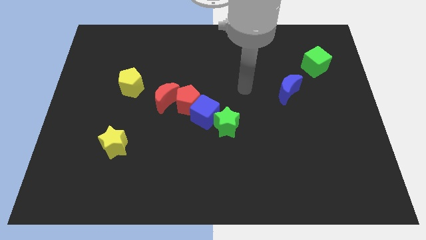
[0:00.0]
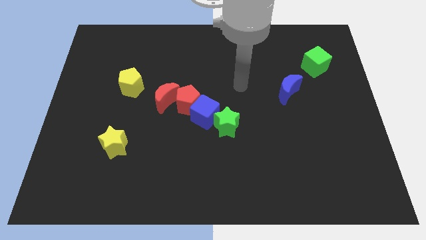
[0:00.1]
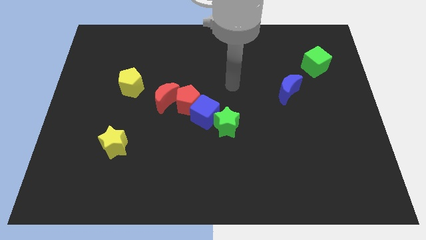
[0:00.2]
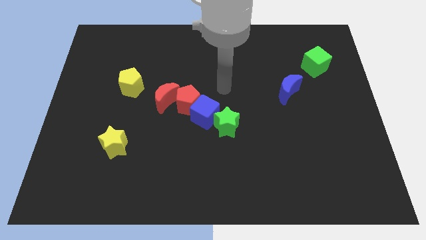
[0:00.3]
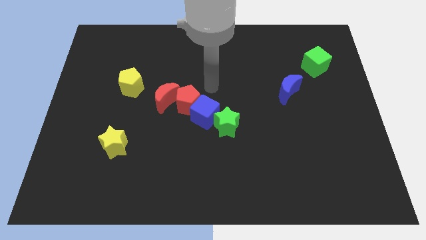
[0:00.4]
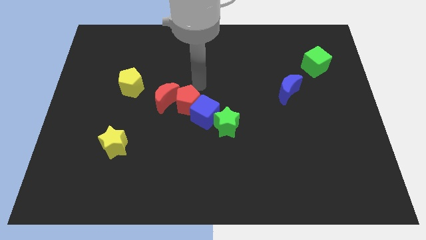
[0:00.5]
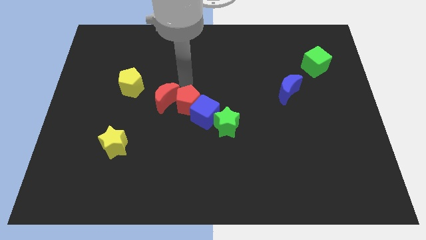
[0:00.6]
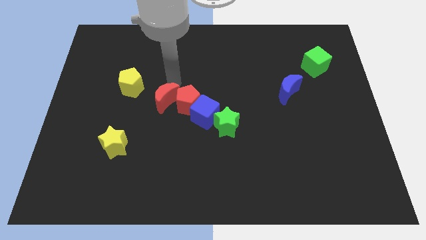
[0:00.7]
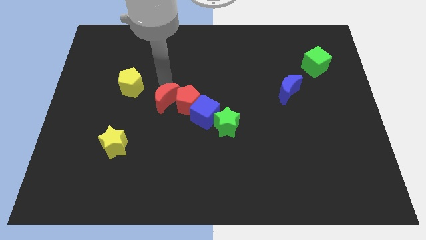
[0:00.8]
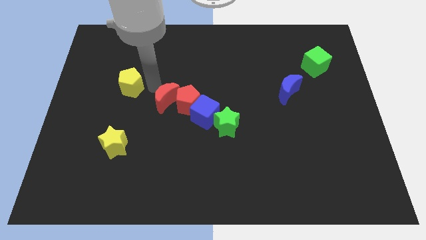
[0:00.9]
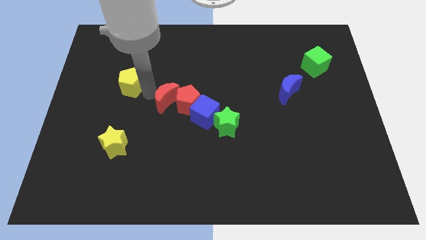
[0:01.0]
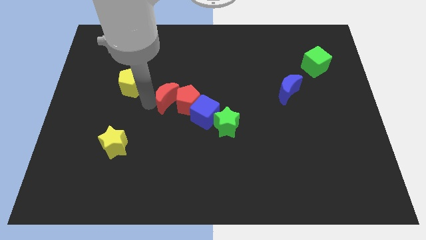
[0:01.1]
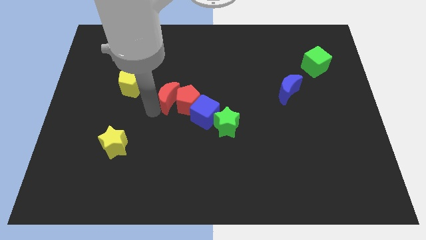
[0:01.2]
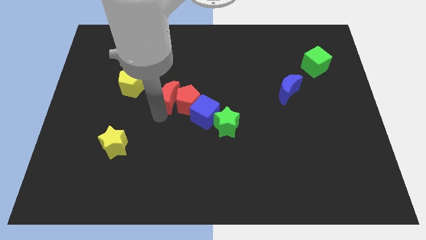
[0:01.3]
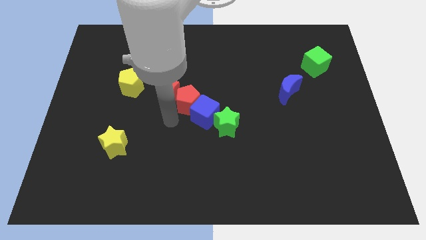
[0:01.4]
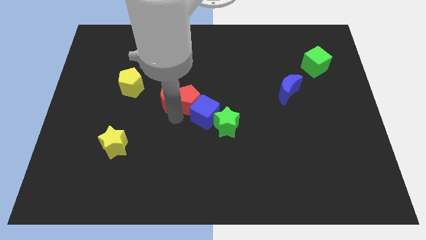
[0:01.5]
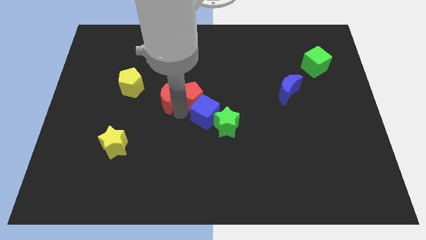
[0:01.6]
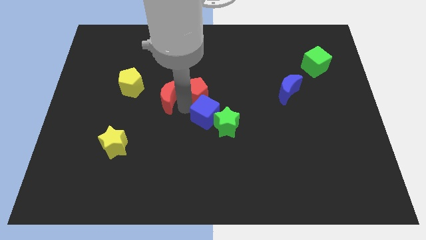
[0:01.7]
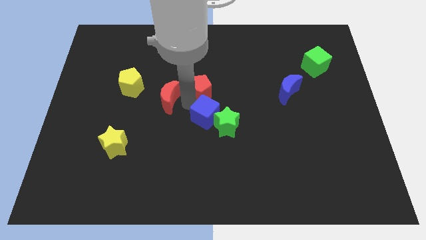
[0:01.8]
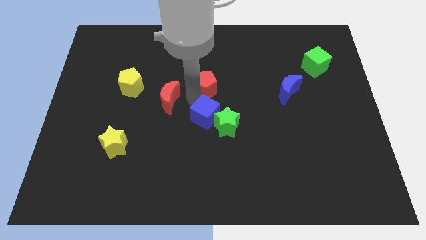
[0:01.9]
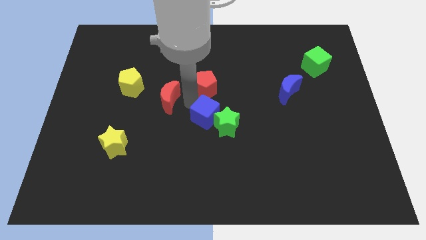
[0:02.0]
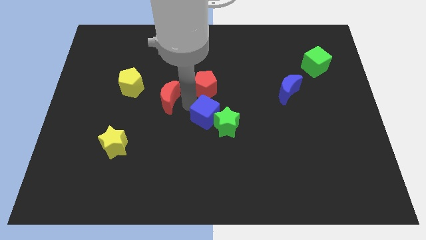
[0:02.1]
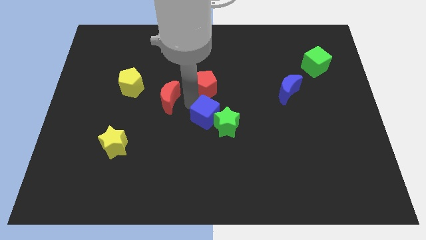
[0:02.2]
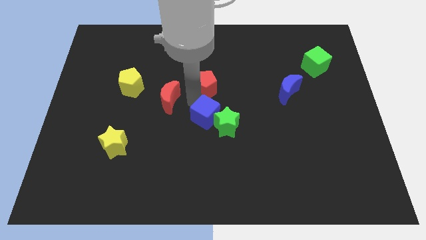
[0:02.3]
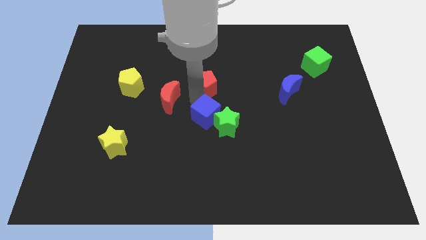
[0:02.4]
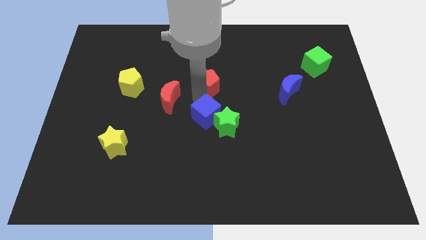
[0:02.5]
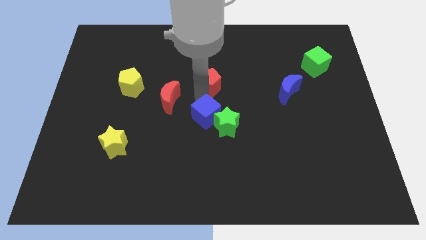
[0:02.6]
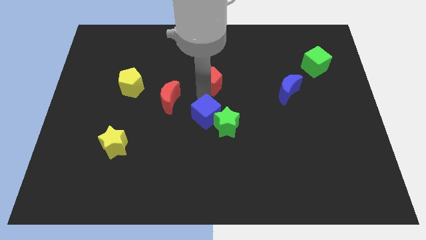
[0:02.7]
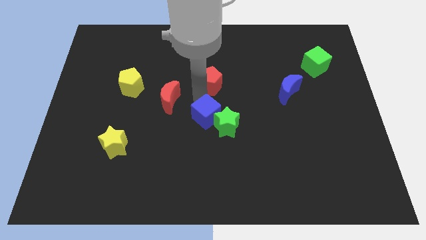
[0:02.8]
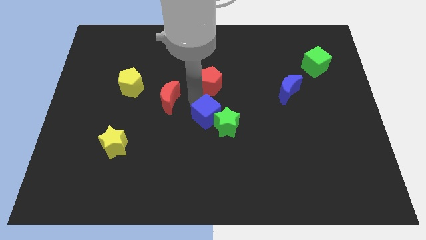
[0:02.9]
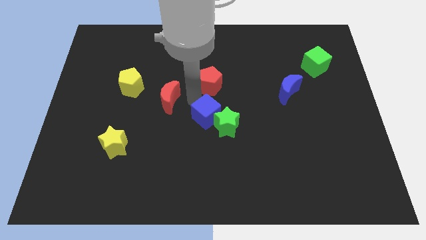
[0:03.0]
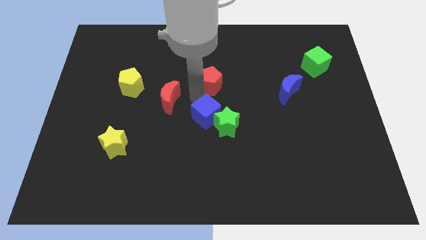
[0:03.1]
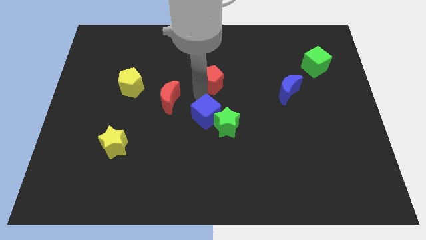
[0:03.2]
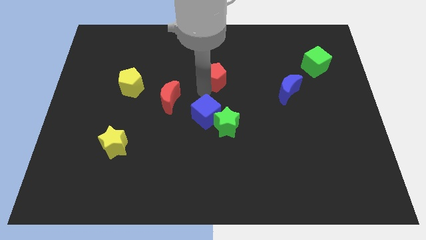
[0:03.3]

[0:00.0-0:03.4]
pull the red pentagon apart from the blue cube and red moon

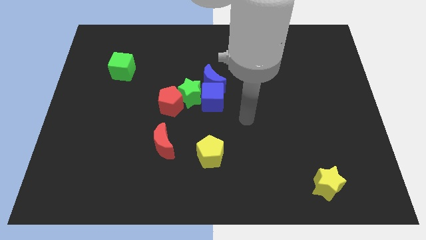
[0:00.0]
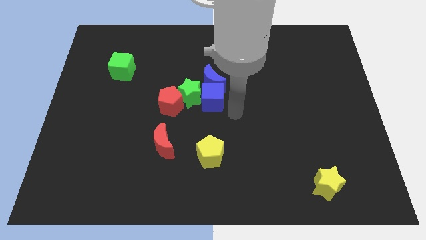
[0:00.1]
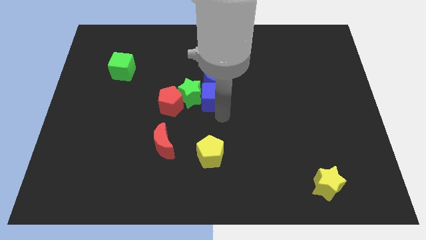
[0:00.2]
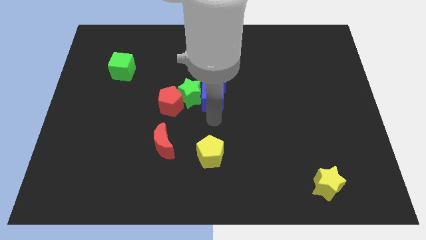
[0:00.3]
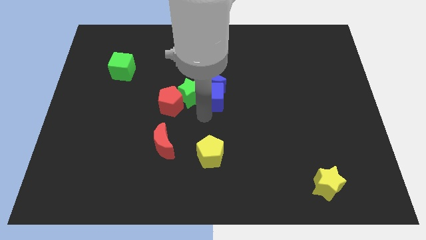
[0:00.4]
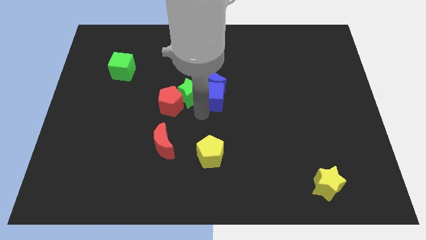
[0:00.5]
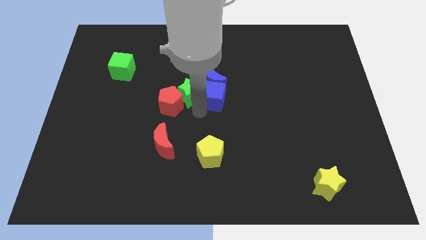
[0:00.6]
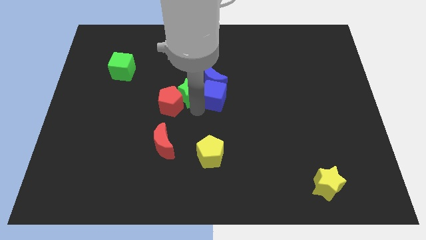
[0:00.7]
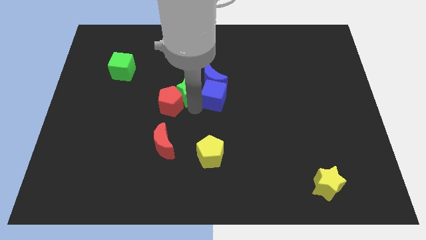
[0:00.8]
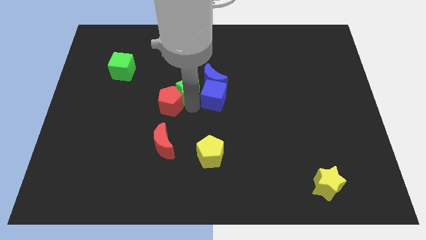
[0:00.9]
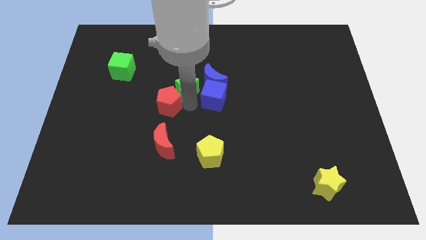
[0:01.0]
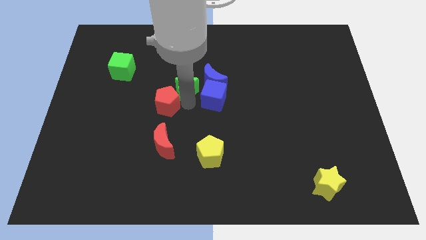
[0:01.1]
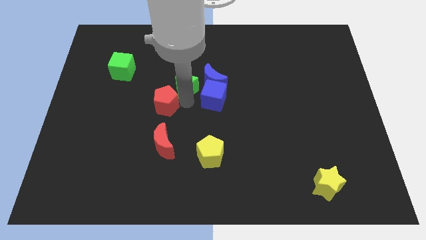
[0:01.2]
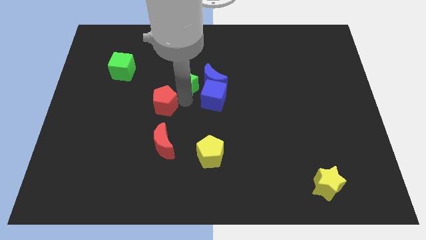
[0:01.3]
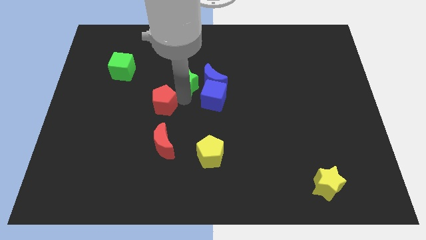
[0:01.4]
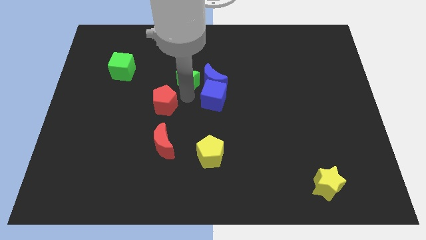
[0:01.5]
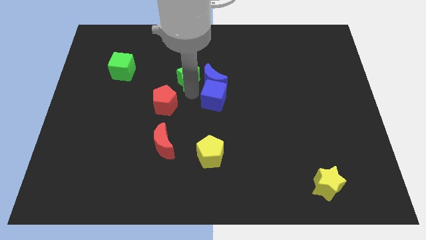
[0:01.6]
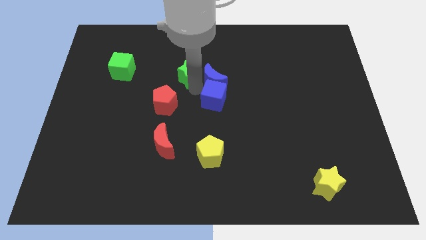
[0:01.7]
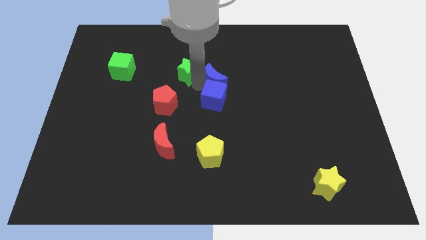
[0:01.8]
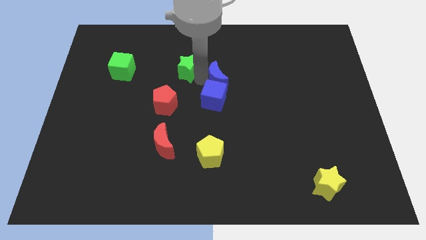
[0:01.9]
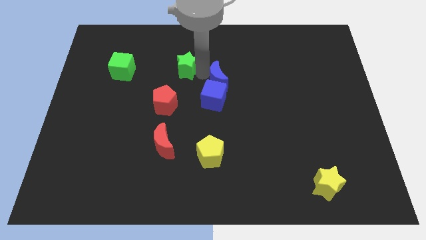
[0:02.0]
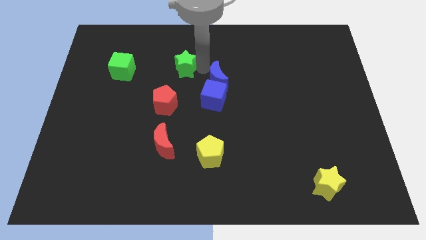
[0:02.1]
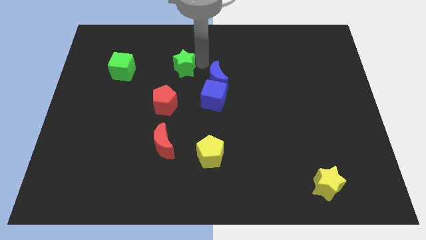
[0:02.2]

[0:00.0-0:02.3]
move the green star away from the blue cube, red pentagon, and blue moon

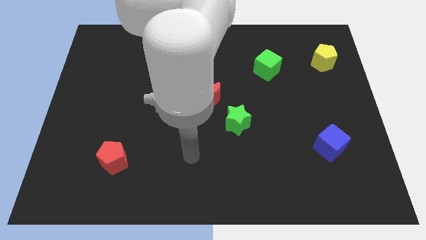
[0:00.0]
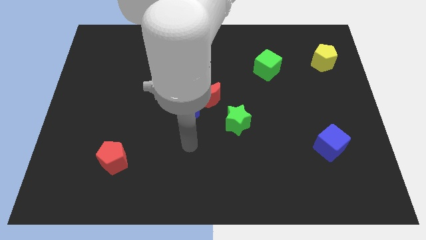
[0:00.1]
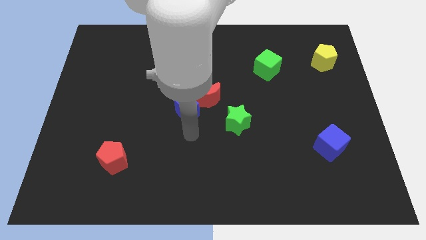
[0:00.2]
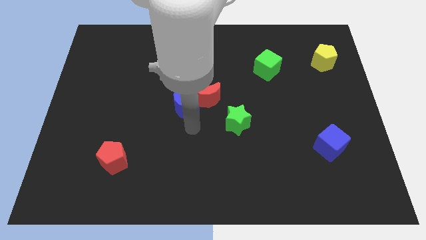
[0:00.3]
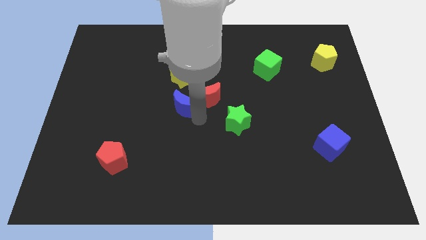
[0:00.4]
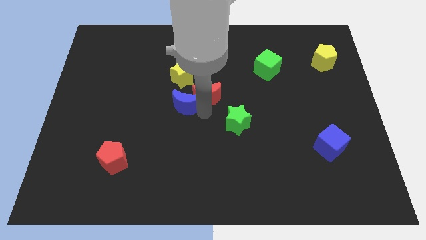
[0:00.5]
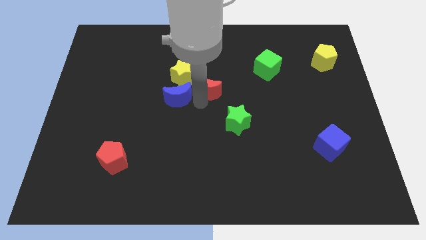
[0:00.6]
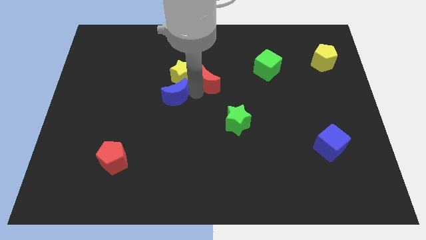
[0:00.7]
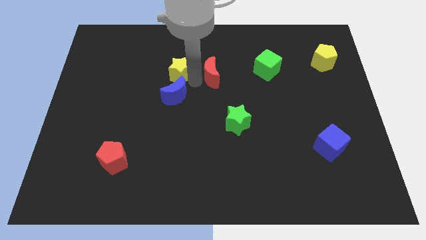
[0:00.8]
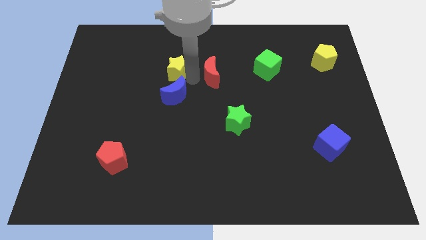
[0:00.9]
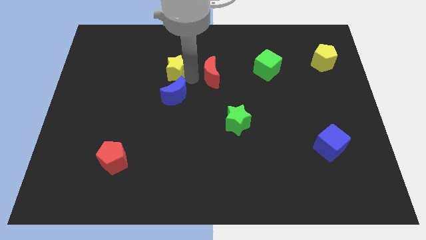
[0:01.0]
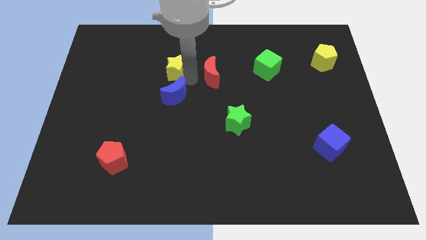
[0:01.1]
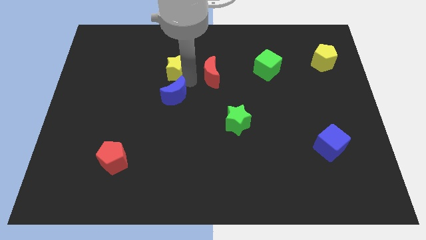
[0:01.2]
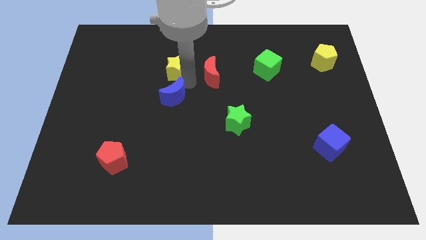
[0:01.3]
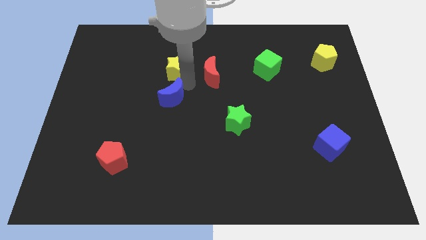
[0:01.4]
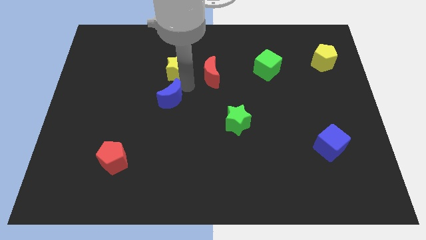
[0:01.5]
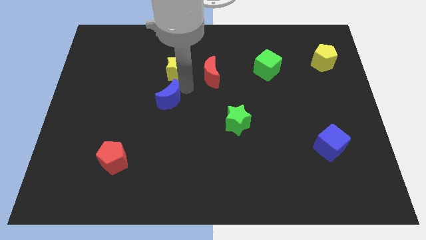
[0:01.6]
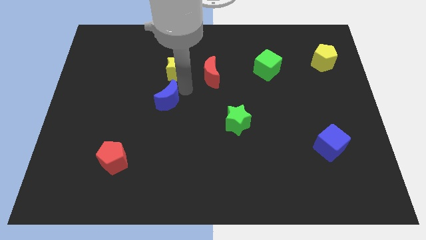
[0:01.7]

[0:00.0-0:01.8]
pull the blue moon apart from the red moon and yellow star

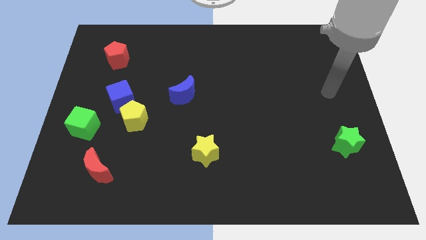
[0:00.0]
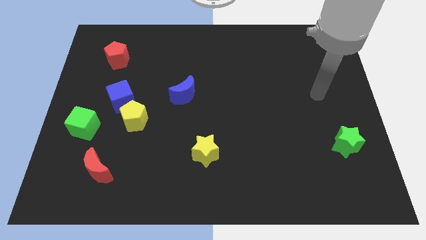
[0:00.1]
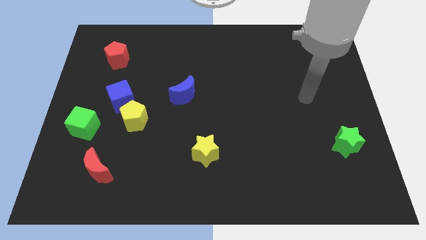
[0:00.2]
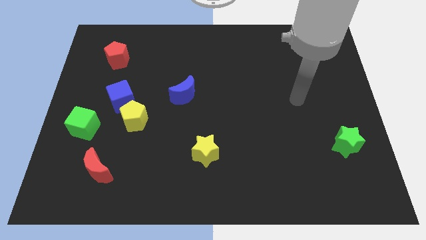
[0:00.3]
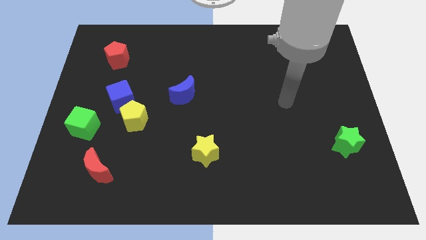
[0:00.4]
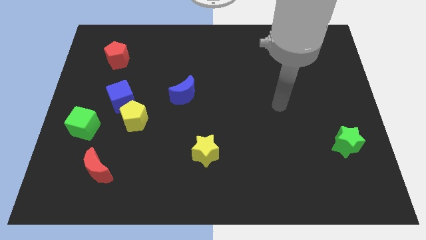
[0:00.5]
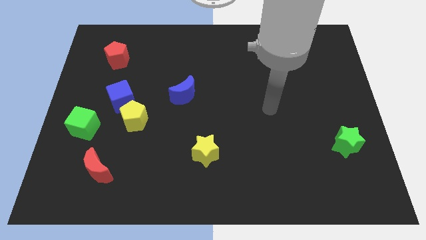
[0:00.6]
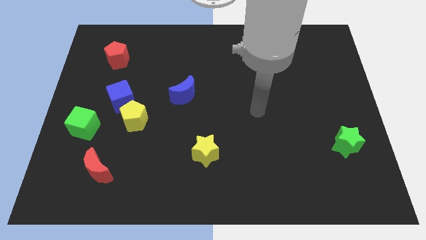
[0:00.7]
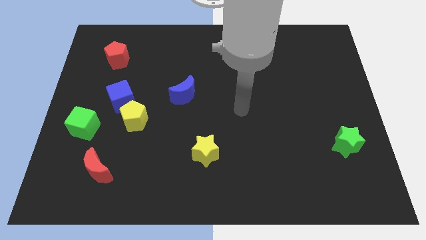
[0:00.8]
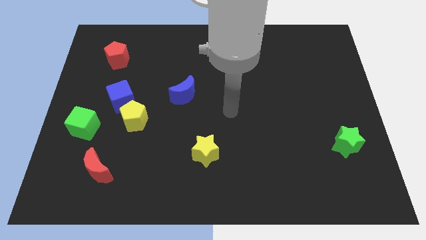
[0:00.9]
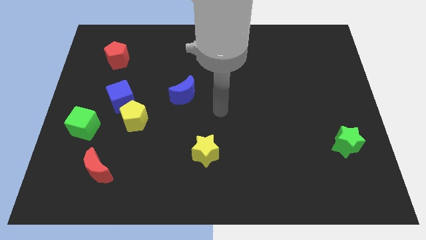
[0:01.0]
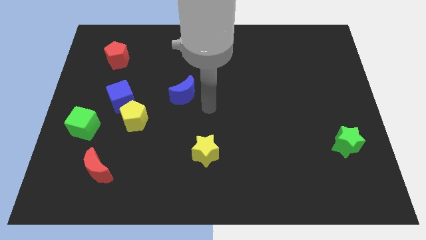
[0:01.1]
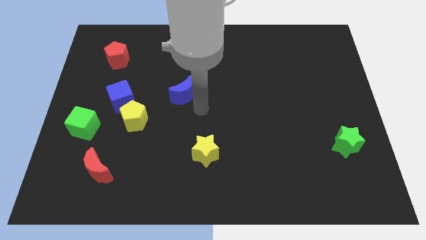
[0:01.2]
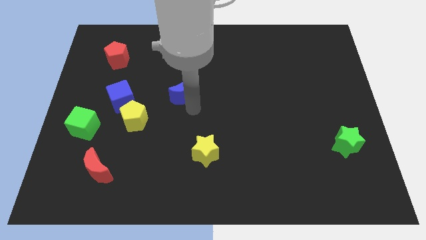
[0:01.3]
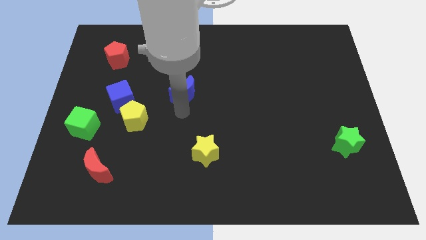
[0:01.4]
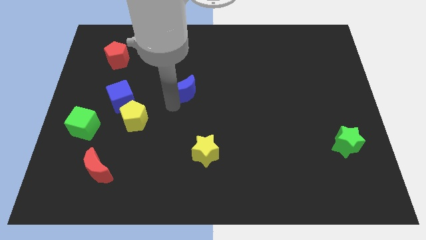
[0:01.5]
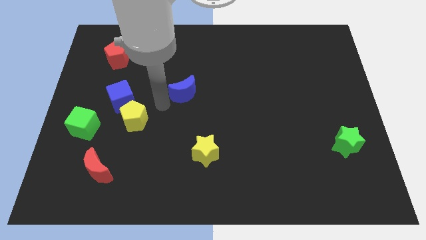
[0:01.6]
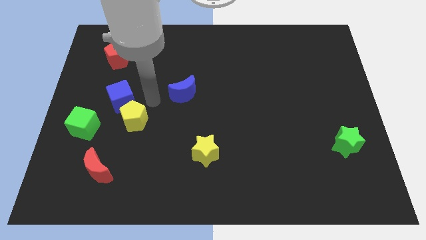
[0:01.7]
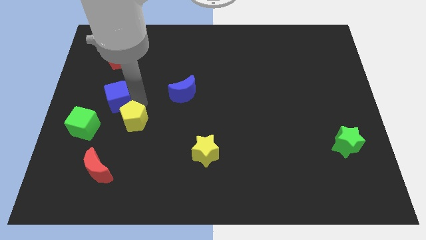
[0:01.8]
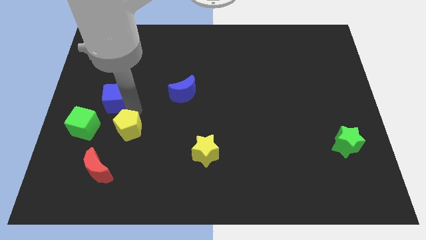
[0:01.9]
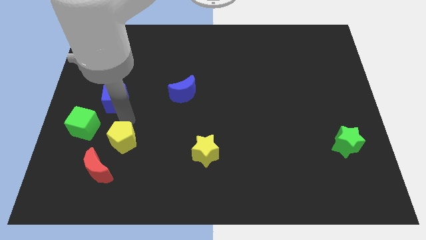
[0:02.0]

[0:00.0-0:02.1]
move the blue cube away from the yellow pentagon
